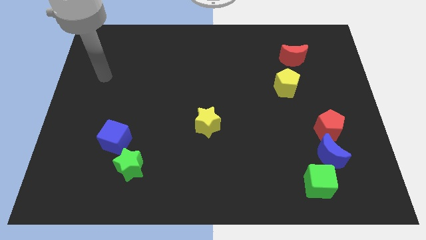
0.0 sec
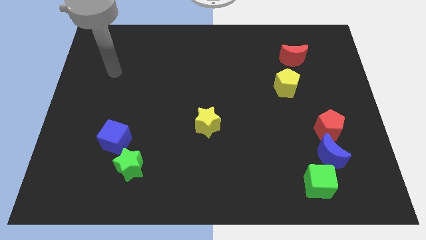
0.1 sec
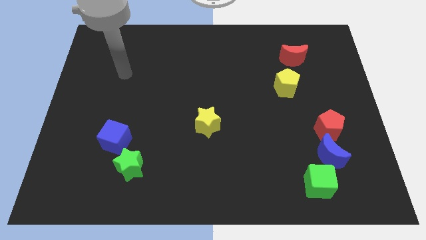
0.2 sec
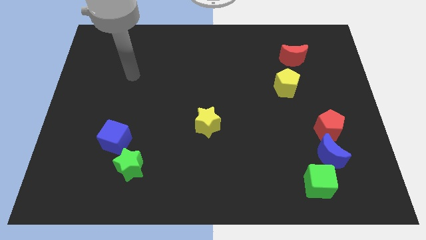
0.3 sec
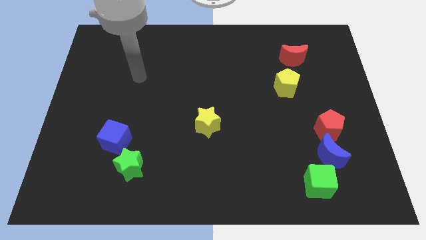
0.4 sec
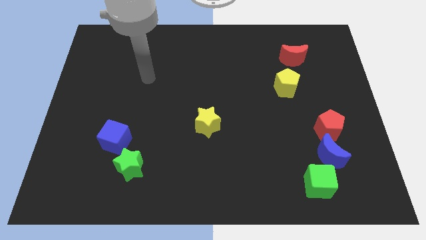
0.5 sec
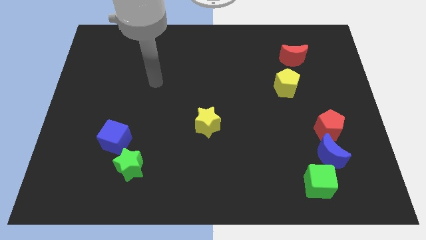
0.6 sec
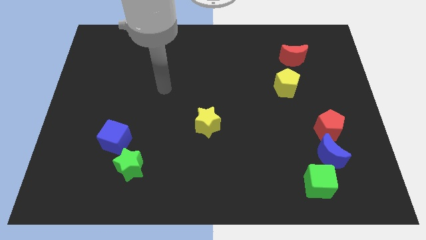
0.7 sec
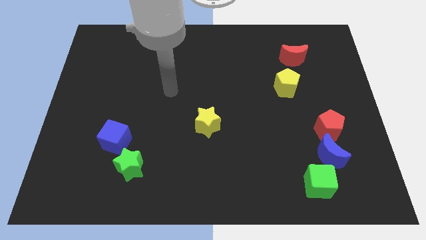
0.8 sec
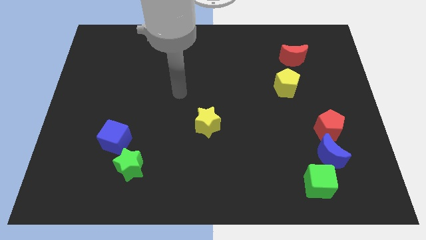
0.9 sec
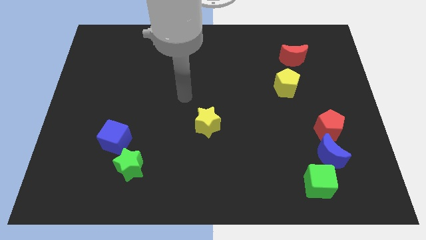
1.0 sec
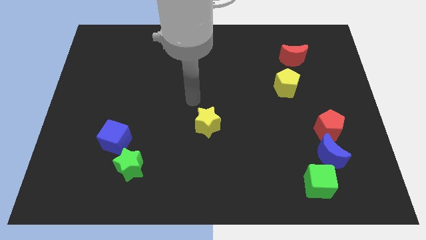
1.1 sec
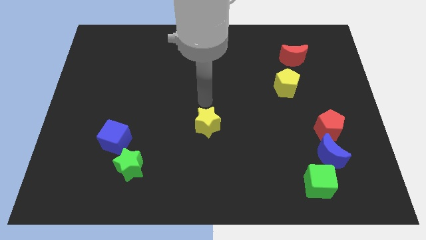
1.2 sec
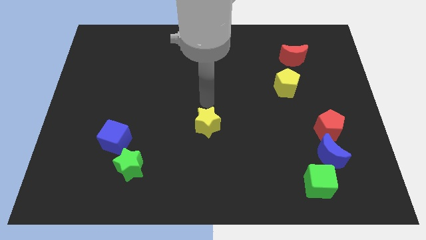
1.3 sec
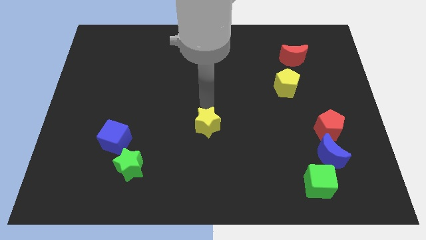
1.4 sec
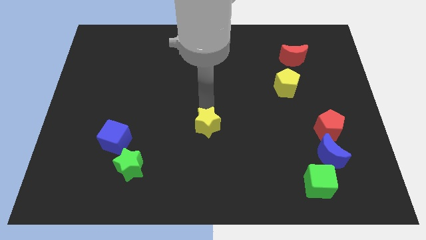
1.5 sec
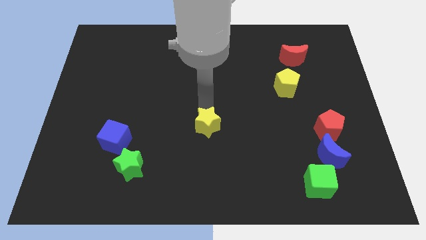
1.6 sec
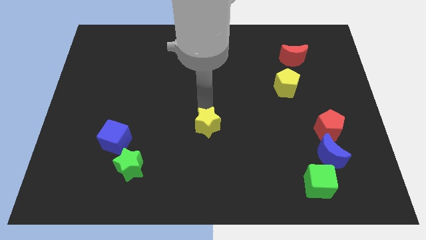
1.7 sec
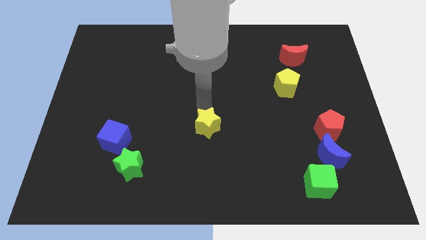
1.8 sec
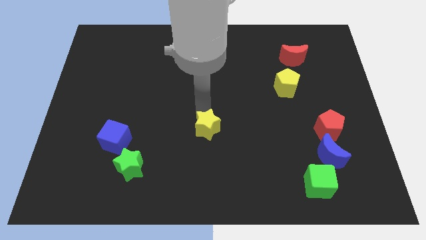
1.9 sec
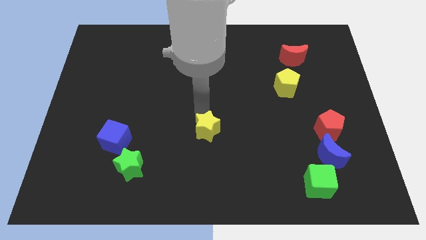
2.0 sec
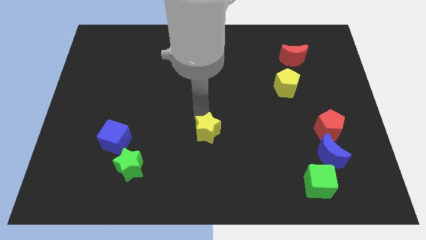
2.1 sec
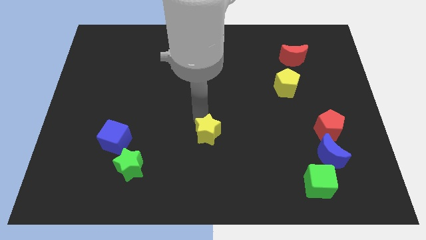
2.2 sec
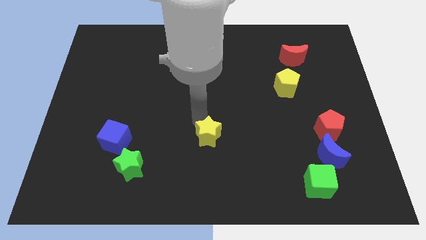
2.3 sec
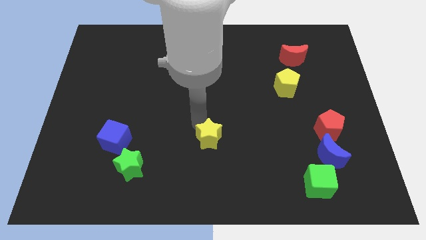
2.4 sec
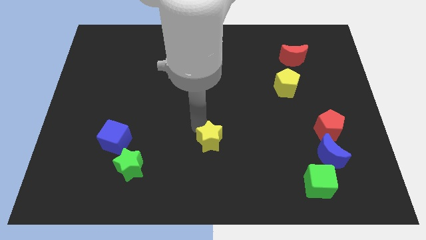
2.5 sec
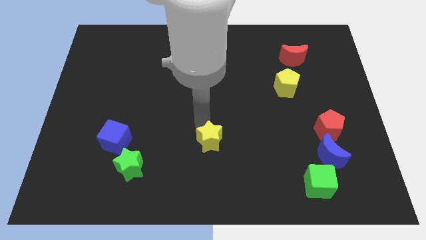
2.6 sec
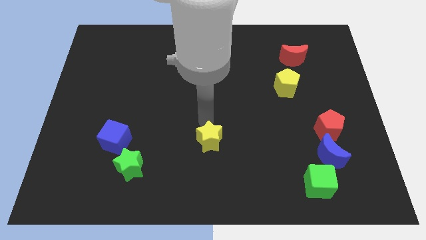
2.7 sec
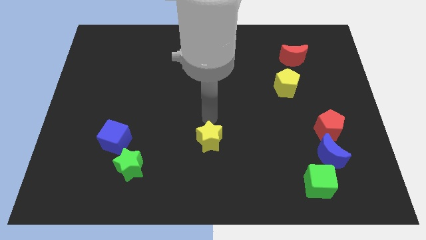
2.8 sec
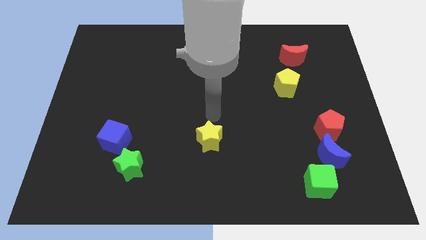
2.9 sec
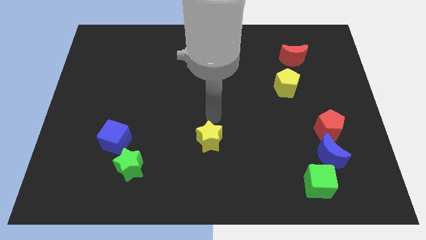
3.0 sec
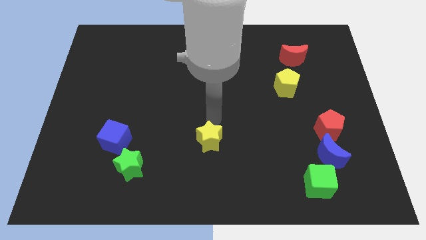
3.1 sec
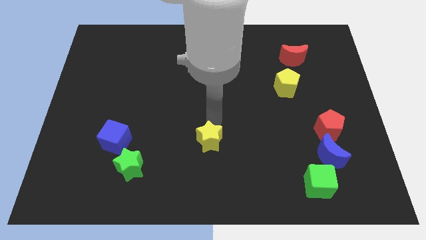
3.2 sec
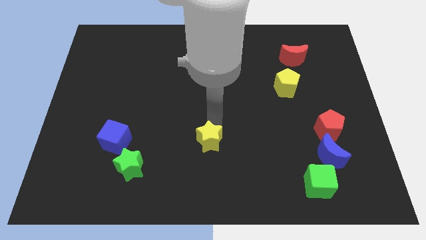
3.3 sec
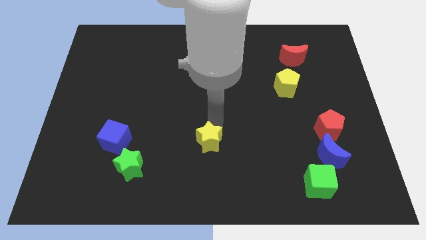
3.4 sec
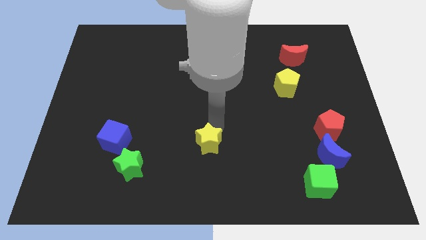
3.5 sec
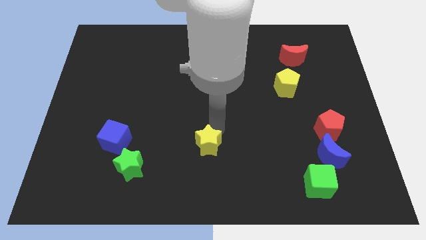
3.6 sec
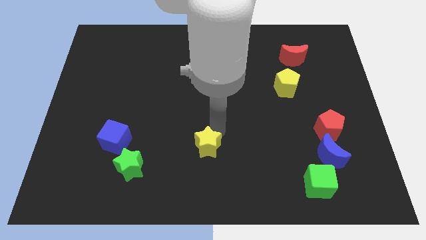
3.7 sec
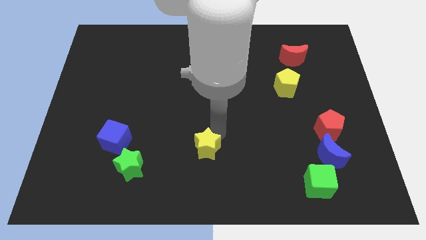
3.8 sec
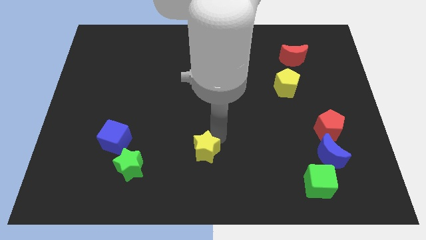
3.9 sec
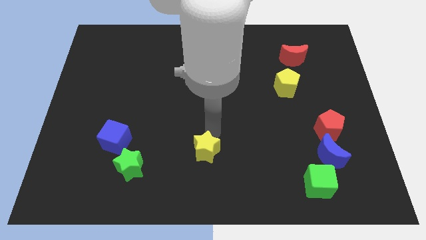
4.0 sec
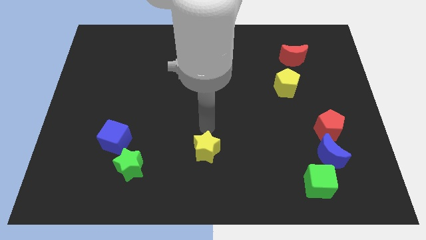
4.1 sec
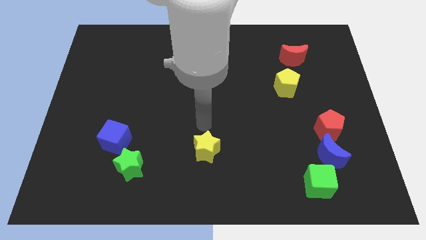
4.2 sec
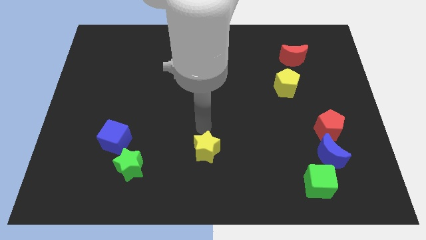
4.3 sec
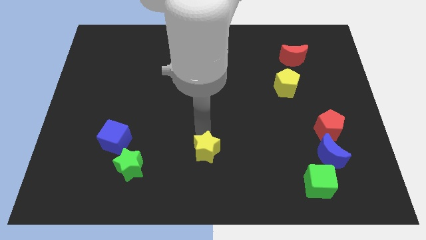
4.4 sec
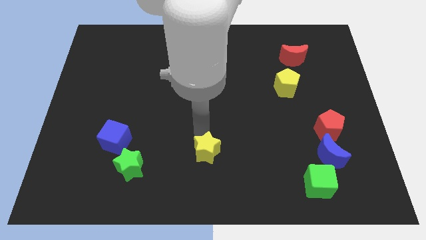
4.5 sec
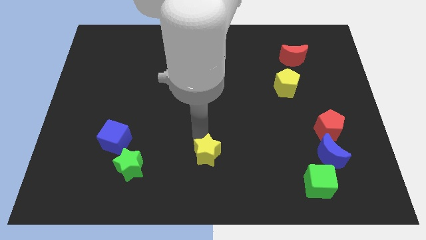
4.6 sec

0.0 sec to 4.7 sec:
push the yellow star to the bottom

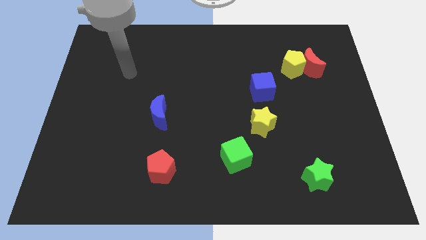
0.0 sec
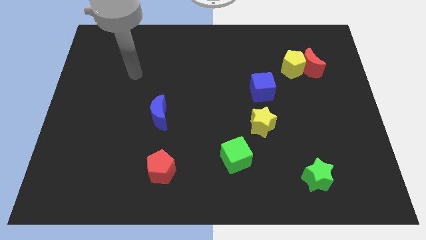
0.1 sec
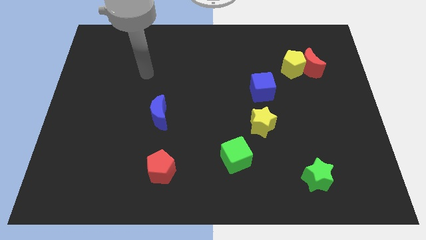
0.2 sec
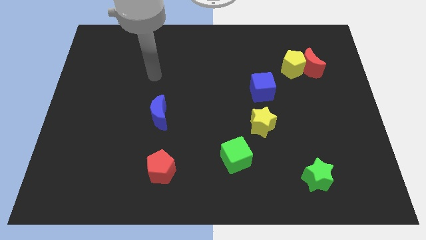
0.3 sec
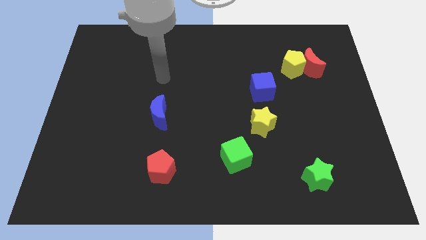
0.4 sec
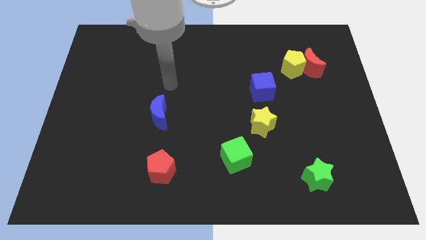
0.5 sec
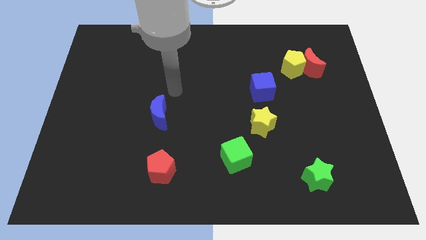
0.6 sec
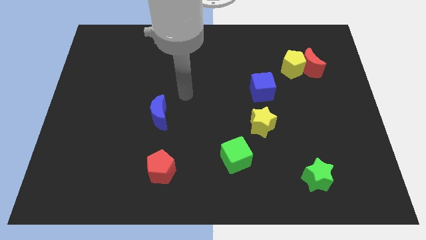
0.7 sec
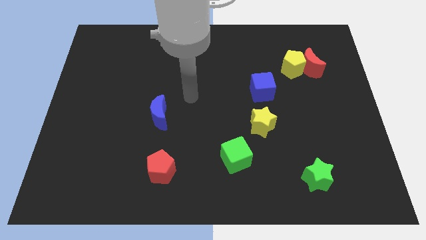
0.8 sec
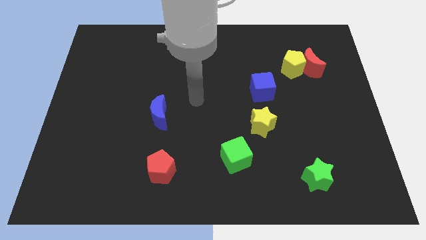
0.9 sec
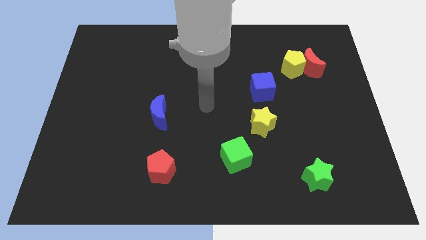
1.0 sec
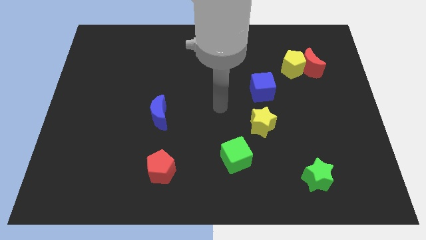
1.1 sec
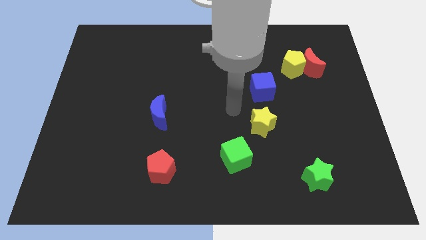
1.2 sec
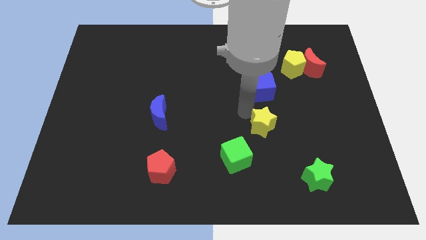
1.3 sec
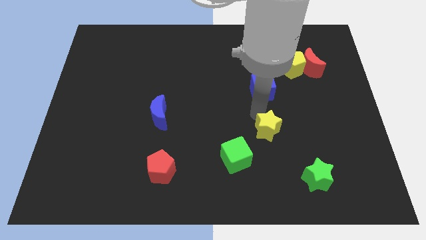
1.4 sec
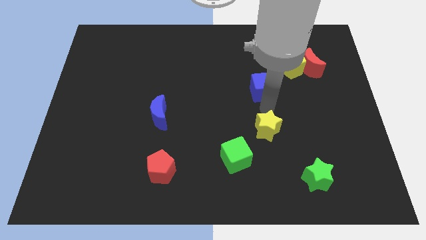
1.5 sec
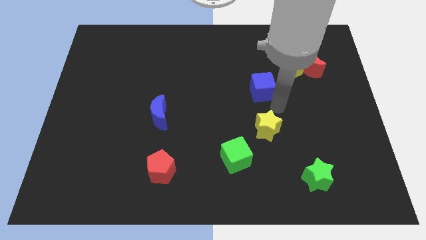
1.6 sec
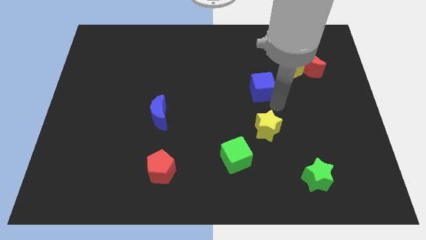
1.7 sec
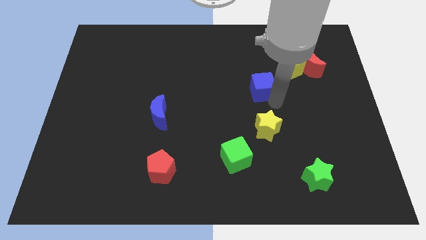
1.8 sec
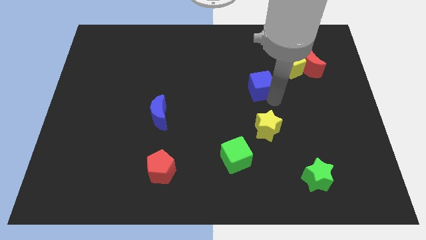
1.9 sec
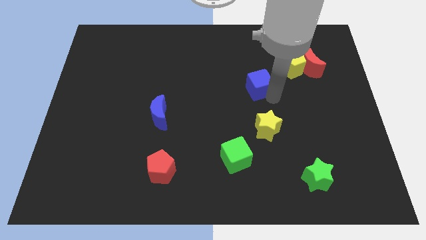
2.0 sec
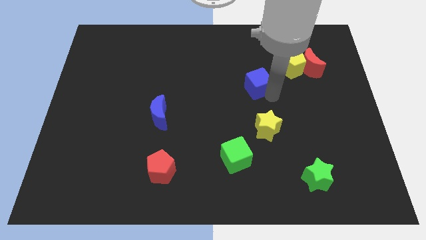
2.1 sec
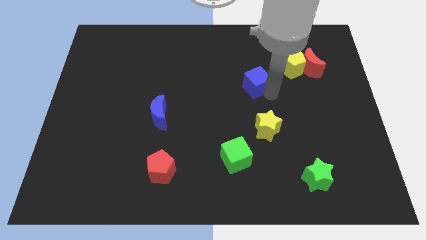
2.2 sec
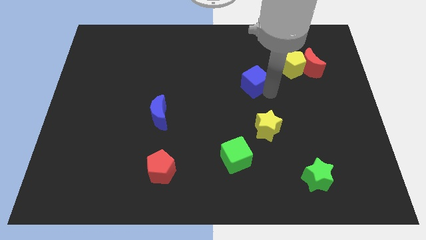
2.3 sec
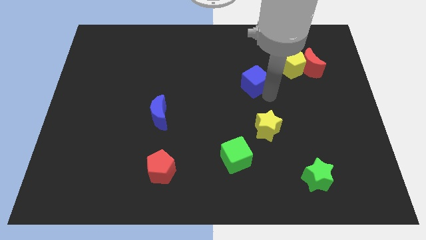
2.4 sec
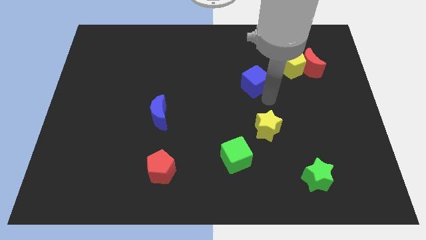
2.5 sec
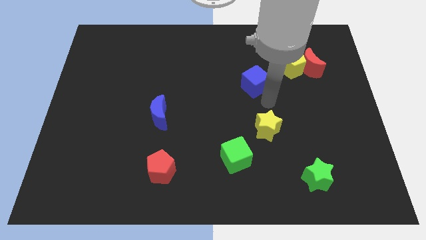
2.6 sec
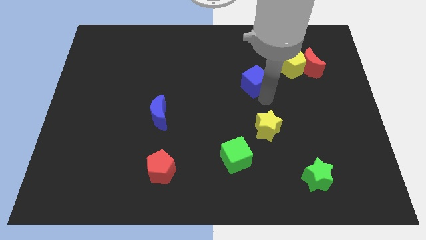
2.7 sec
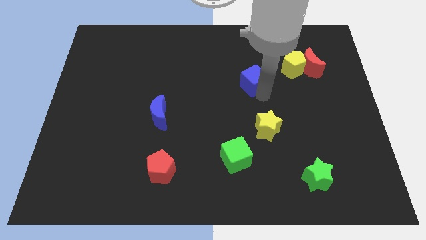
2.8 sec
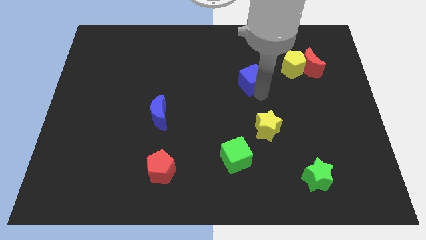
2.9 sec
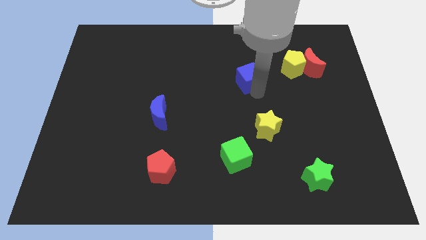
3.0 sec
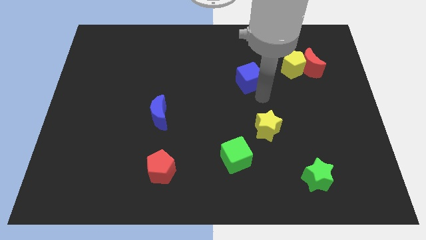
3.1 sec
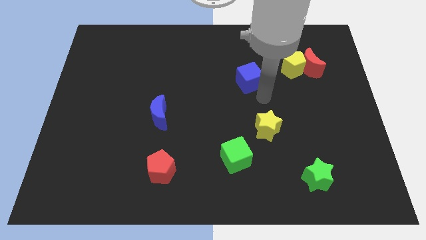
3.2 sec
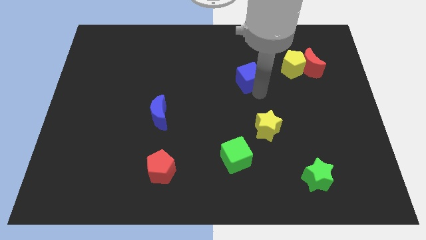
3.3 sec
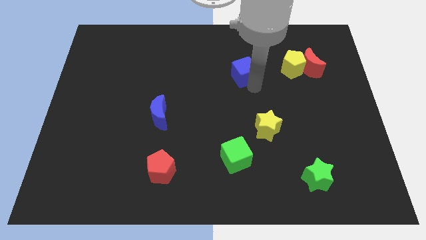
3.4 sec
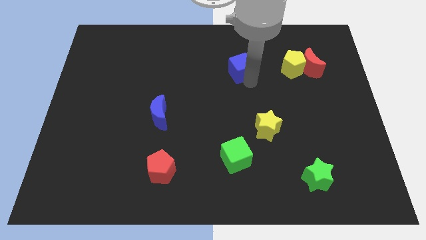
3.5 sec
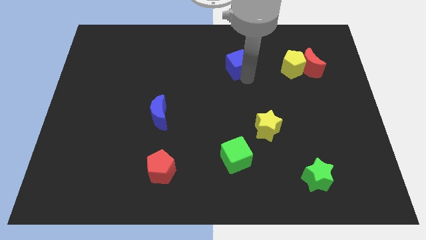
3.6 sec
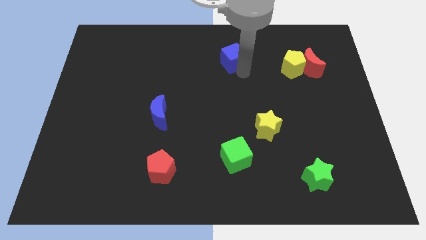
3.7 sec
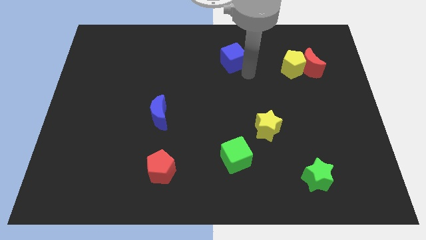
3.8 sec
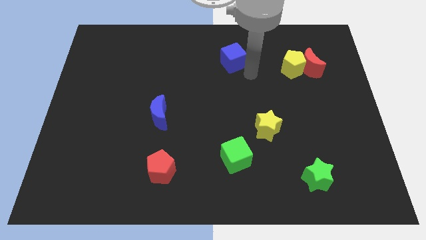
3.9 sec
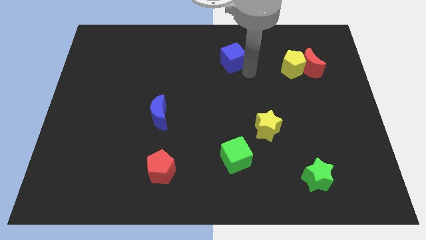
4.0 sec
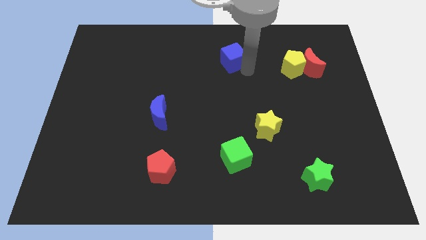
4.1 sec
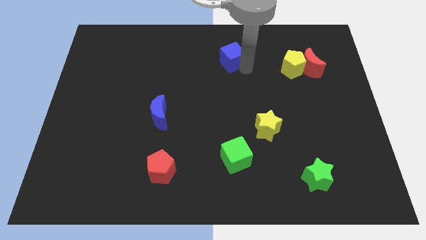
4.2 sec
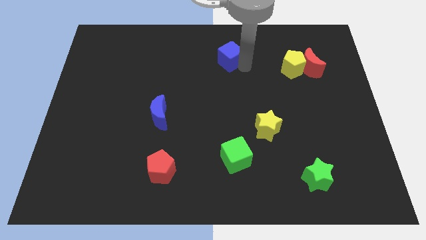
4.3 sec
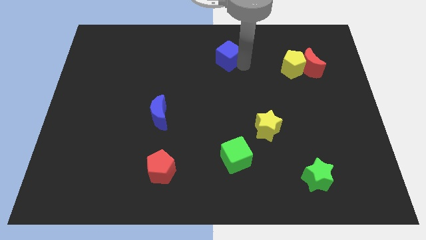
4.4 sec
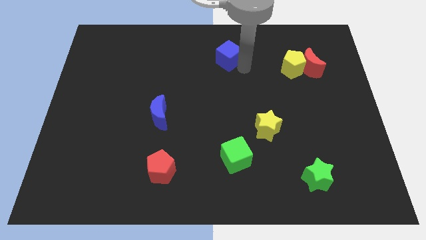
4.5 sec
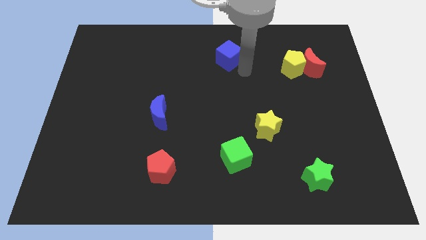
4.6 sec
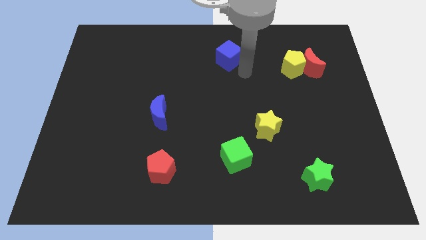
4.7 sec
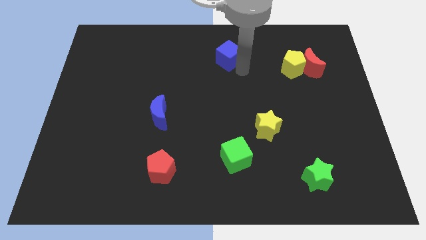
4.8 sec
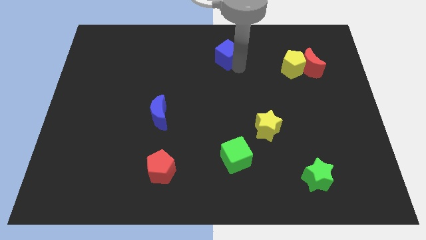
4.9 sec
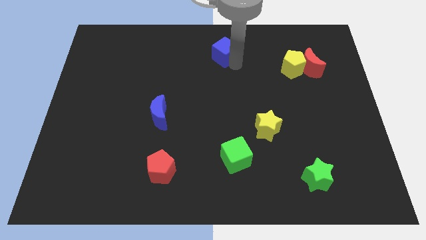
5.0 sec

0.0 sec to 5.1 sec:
put the blue cube to the top side
